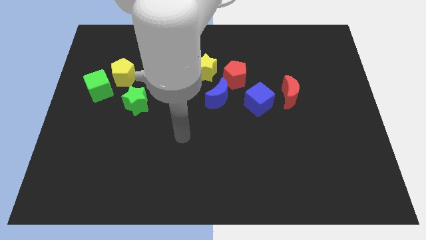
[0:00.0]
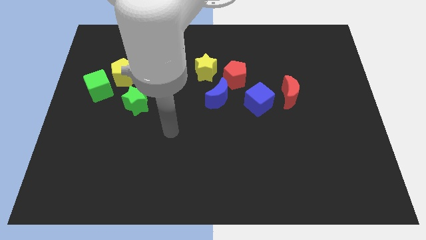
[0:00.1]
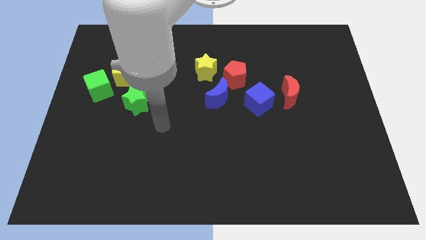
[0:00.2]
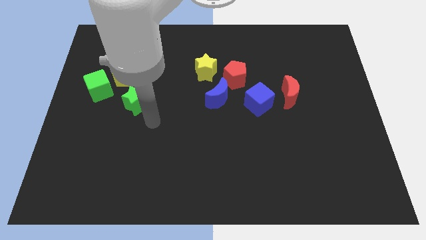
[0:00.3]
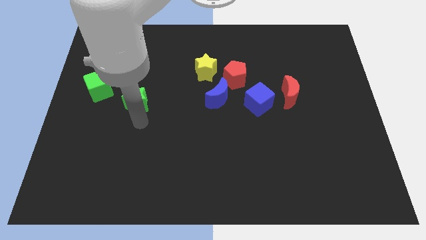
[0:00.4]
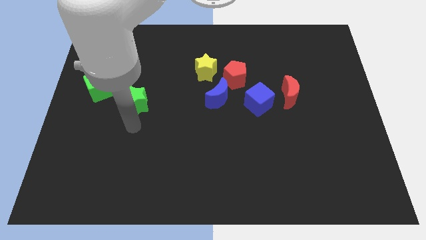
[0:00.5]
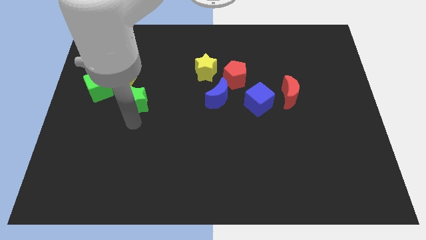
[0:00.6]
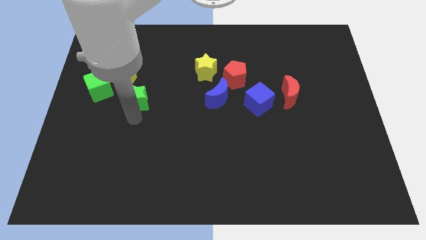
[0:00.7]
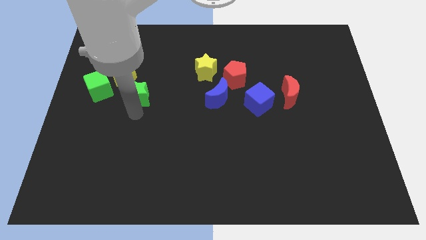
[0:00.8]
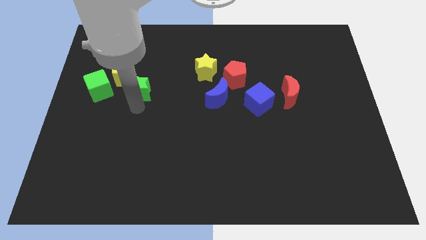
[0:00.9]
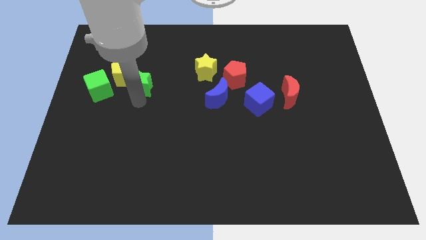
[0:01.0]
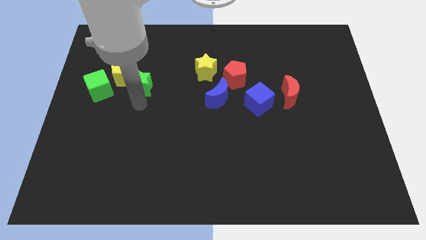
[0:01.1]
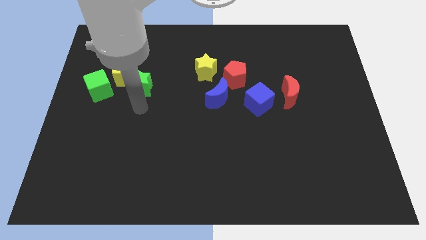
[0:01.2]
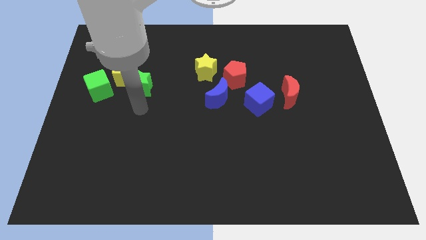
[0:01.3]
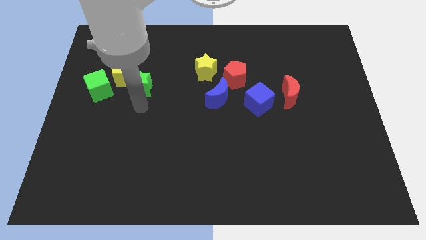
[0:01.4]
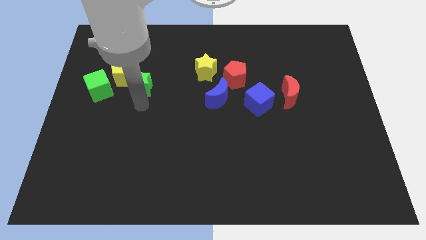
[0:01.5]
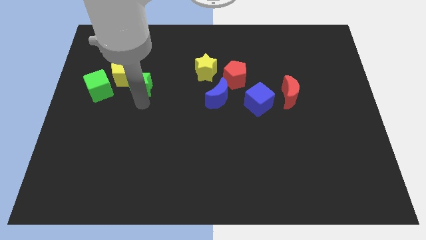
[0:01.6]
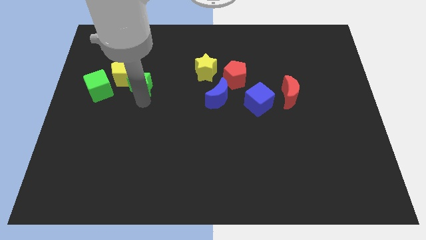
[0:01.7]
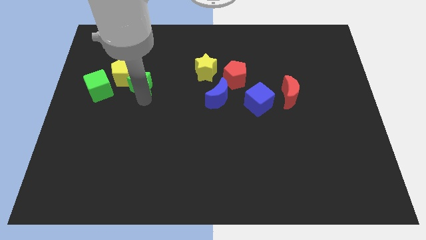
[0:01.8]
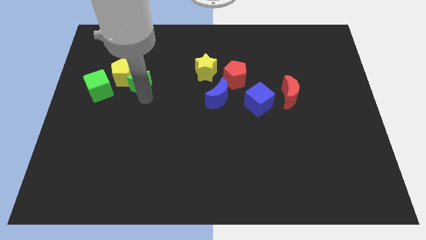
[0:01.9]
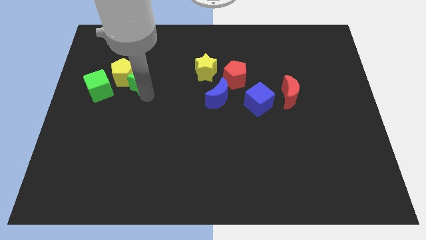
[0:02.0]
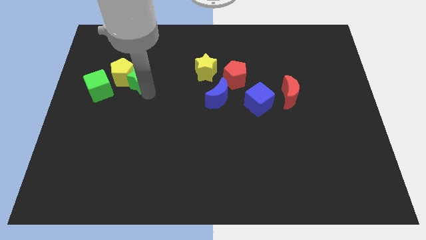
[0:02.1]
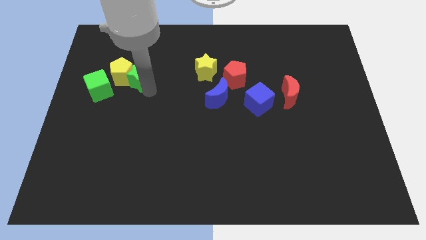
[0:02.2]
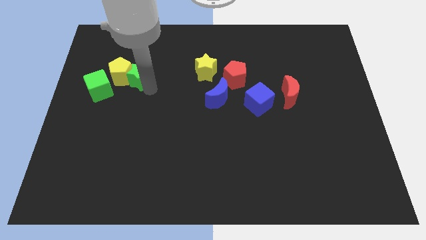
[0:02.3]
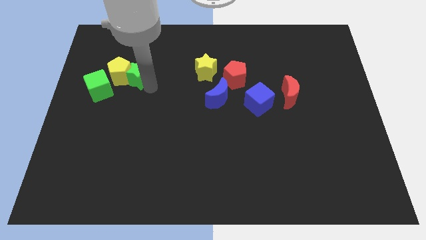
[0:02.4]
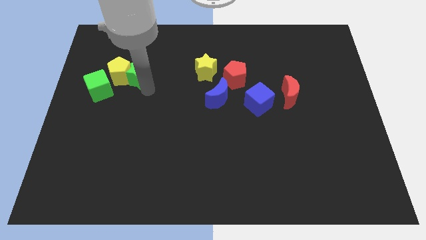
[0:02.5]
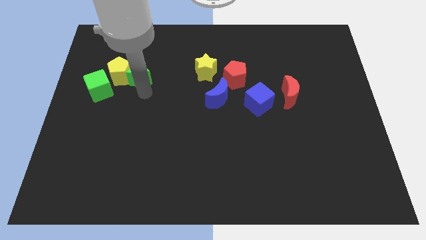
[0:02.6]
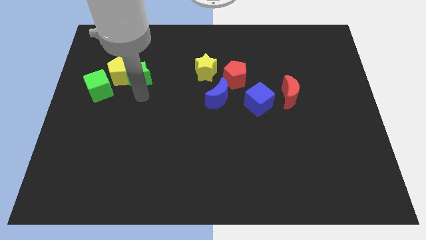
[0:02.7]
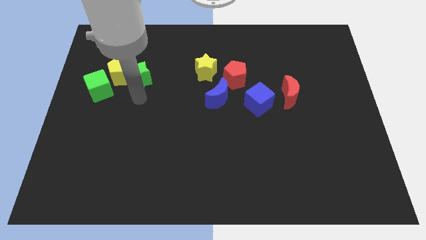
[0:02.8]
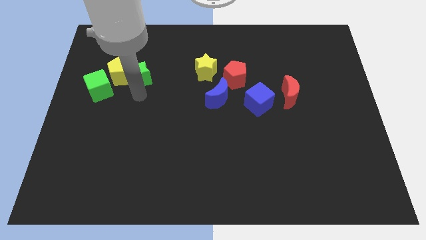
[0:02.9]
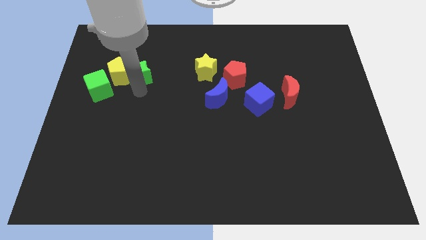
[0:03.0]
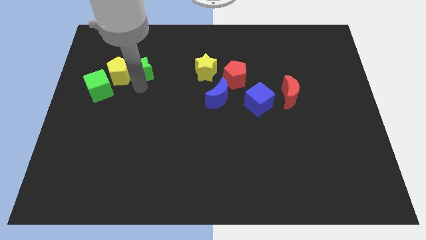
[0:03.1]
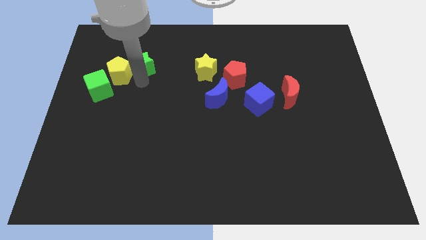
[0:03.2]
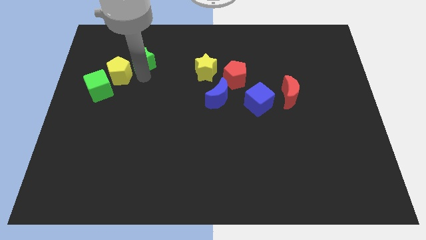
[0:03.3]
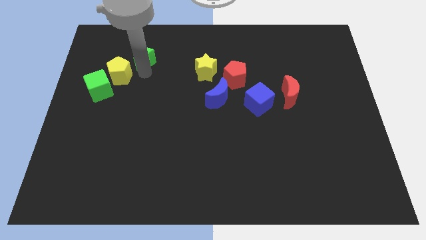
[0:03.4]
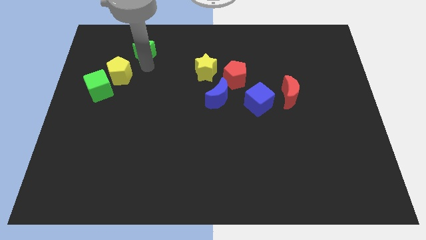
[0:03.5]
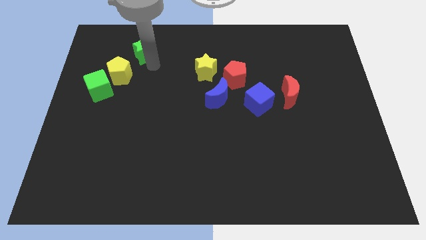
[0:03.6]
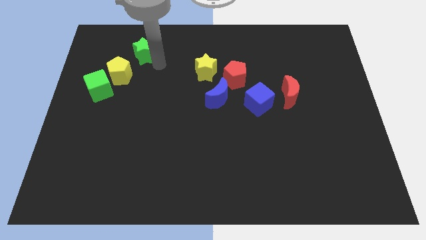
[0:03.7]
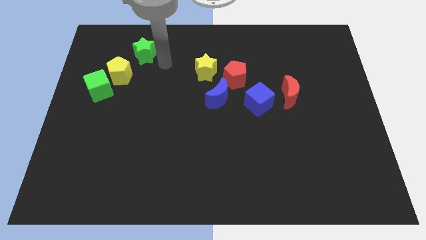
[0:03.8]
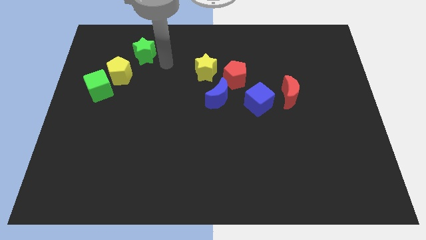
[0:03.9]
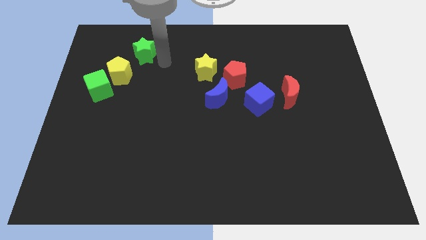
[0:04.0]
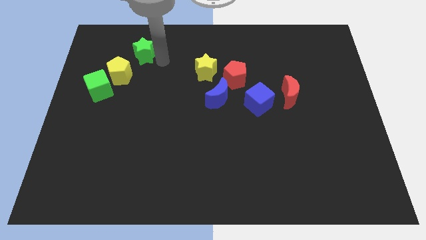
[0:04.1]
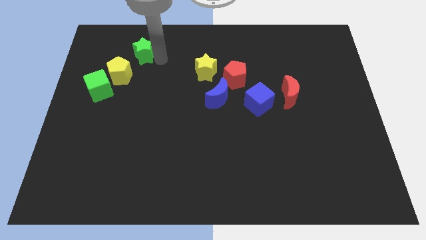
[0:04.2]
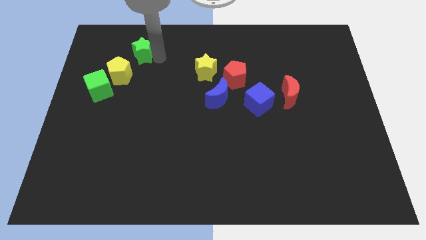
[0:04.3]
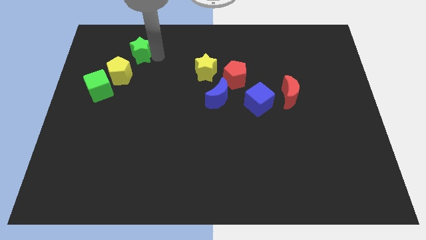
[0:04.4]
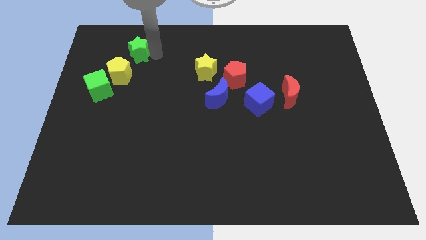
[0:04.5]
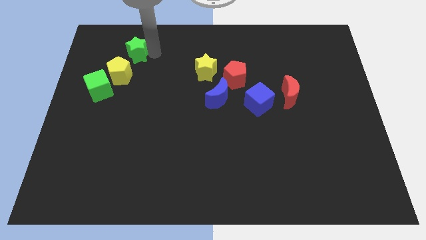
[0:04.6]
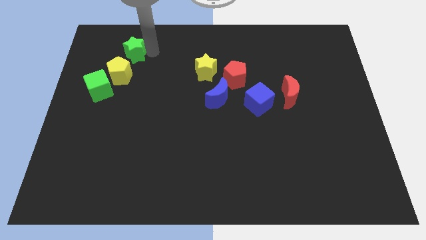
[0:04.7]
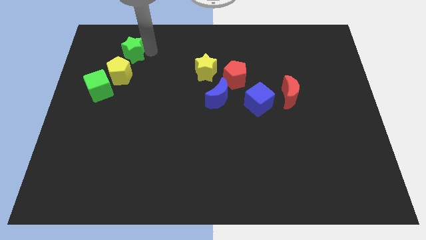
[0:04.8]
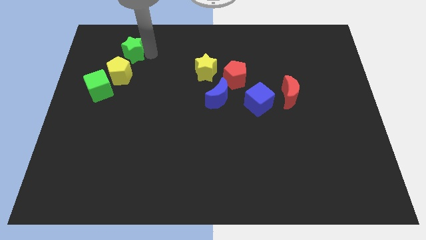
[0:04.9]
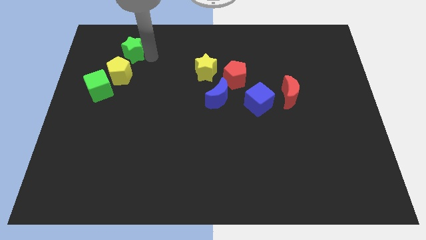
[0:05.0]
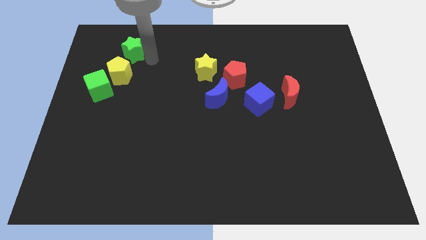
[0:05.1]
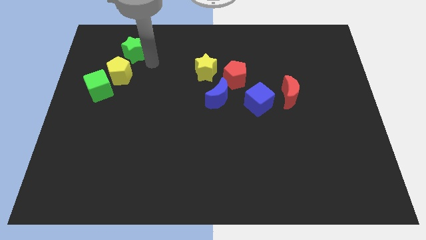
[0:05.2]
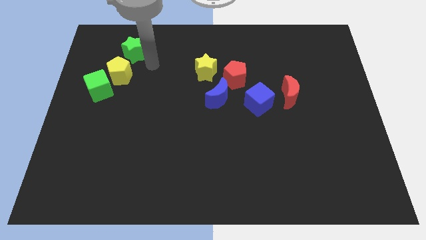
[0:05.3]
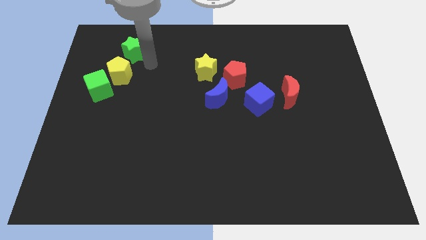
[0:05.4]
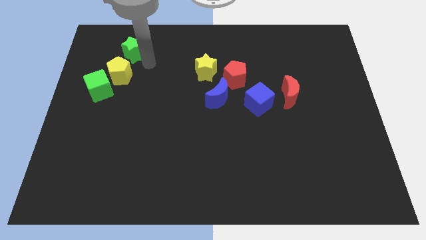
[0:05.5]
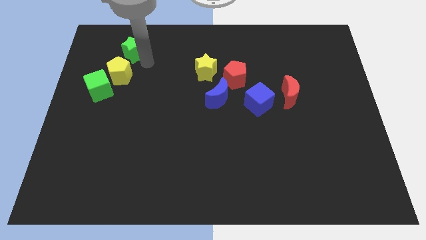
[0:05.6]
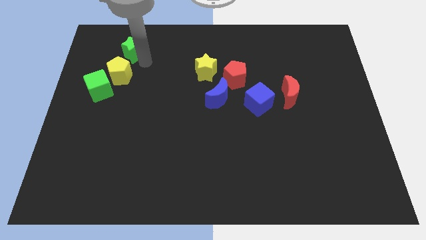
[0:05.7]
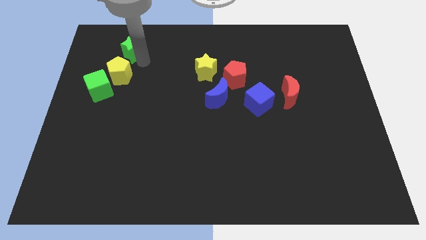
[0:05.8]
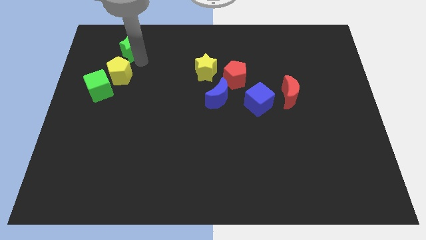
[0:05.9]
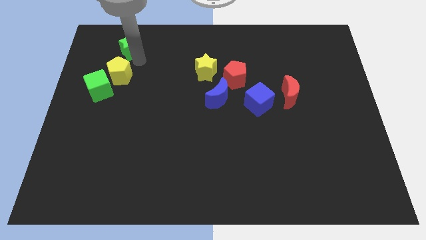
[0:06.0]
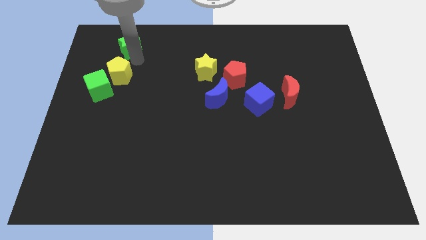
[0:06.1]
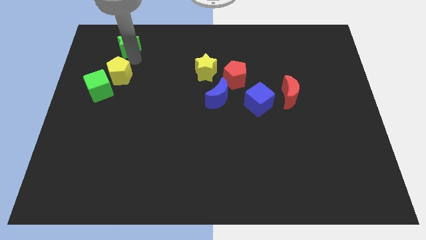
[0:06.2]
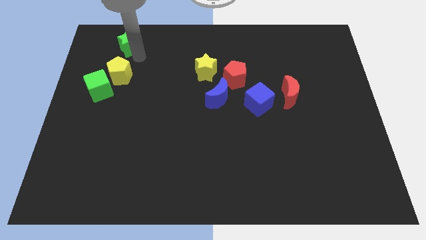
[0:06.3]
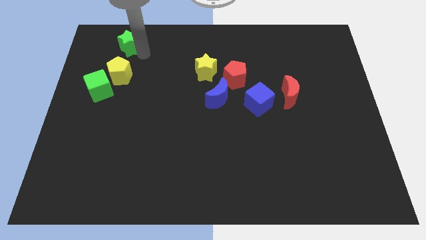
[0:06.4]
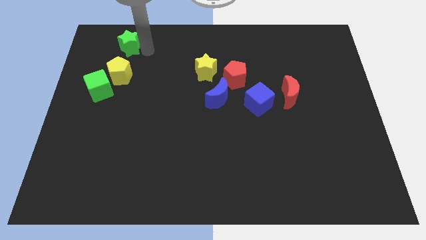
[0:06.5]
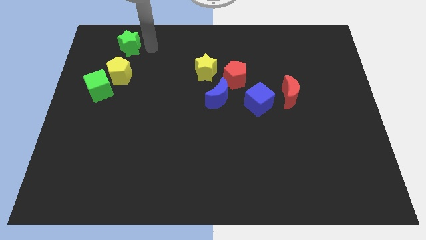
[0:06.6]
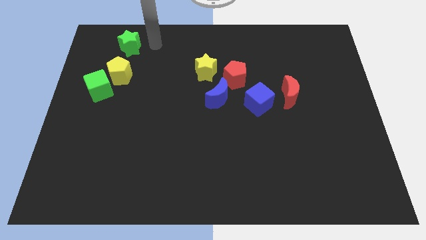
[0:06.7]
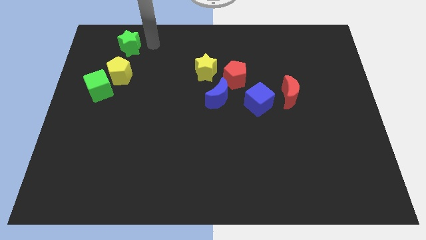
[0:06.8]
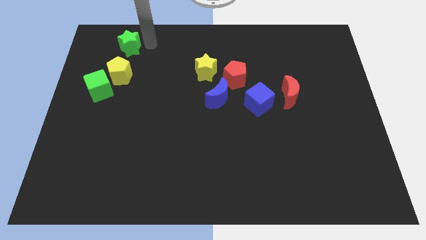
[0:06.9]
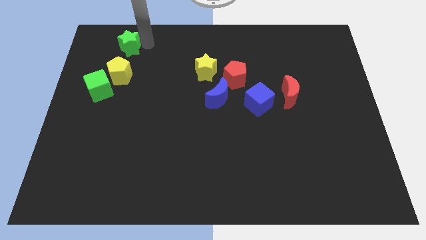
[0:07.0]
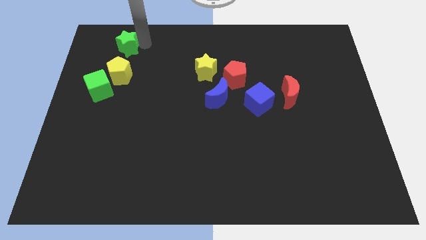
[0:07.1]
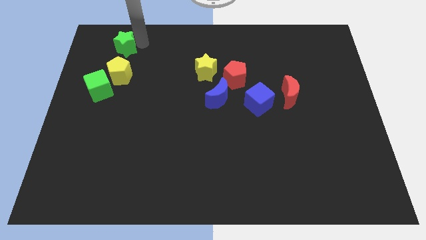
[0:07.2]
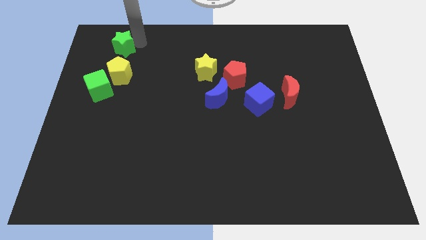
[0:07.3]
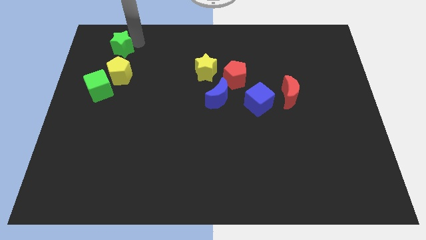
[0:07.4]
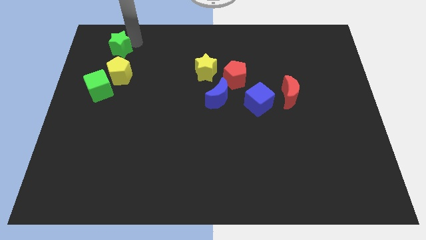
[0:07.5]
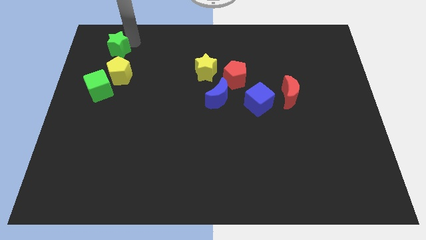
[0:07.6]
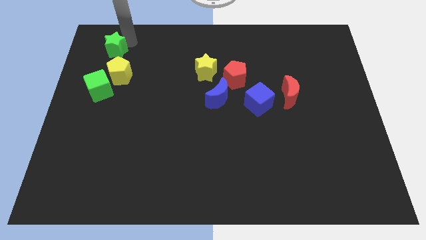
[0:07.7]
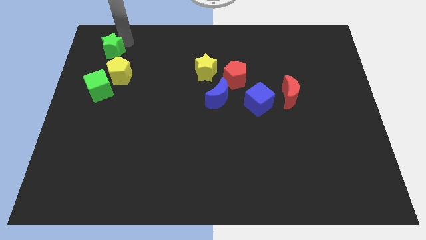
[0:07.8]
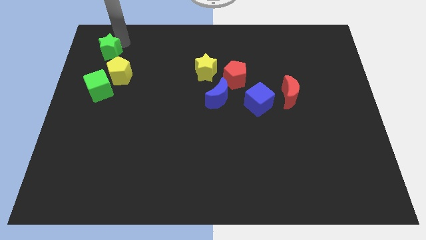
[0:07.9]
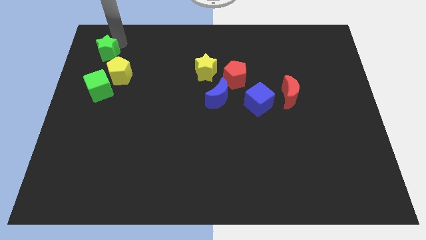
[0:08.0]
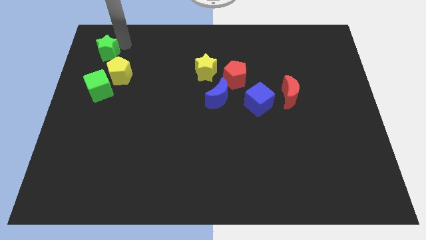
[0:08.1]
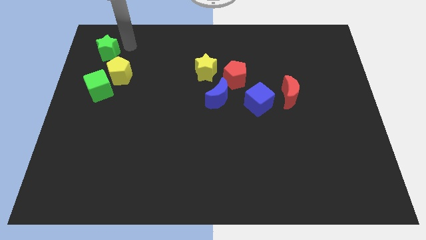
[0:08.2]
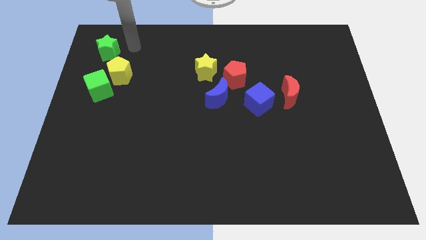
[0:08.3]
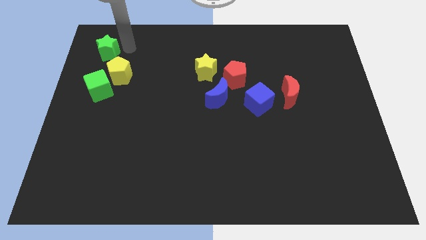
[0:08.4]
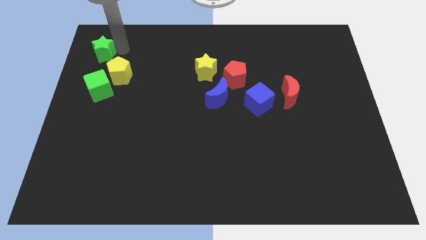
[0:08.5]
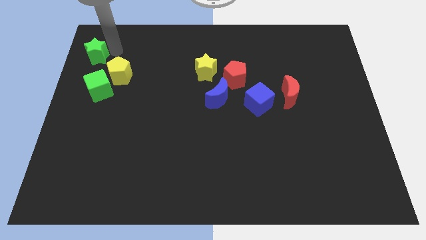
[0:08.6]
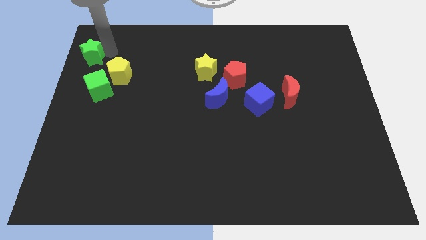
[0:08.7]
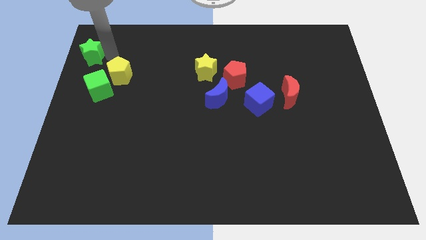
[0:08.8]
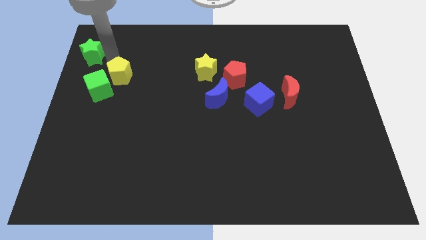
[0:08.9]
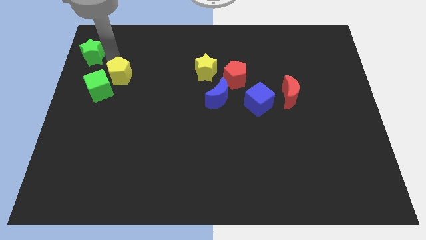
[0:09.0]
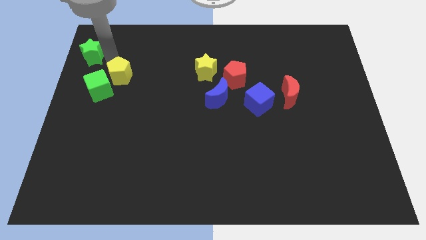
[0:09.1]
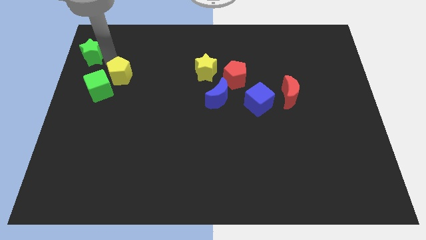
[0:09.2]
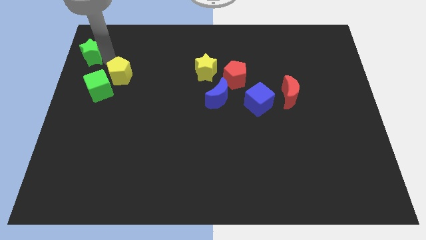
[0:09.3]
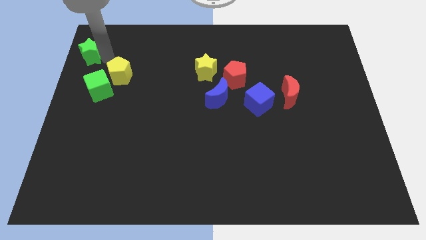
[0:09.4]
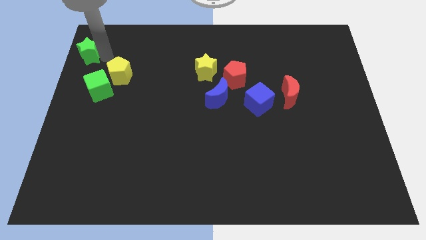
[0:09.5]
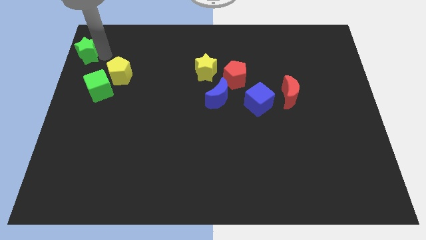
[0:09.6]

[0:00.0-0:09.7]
put the green star to the upper left corner
